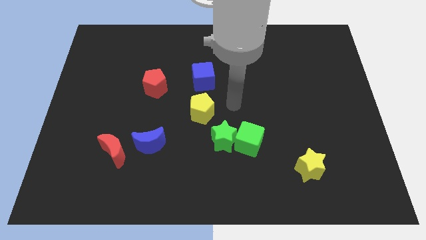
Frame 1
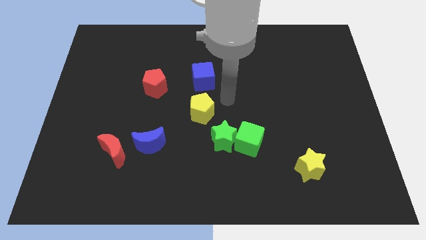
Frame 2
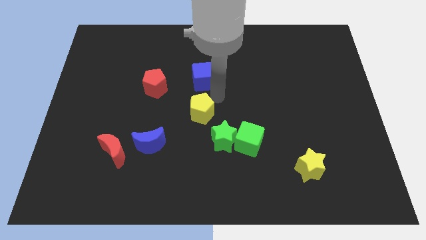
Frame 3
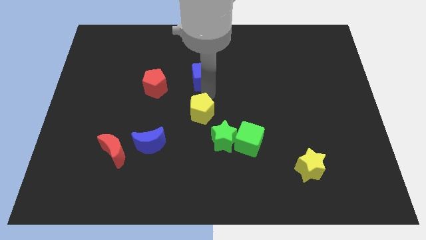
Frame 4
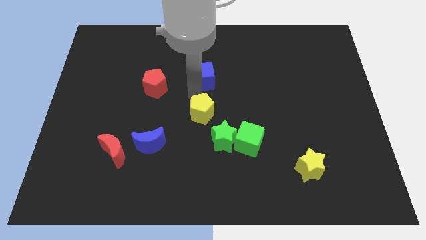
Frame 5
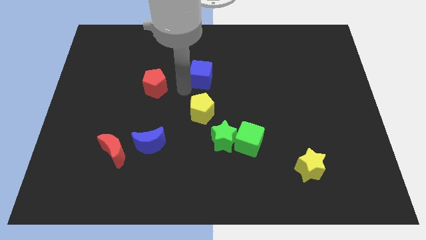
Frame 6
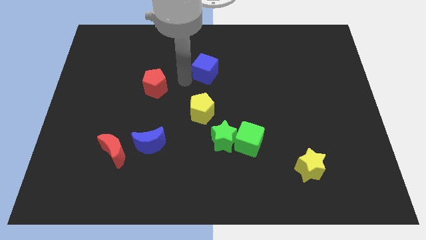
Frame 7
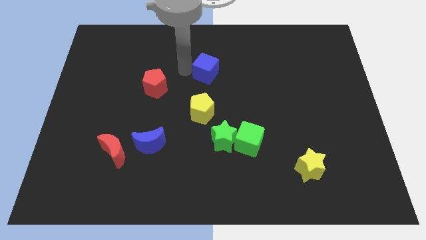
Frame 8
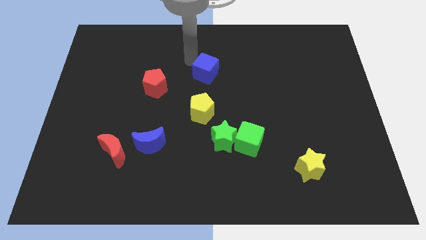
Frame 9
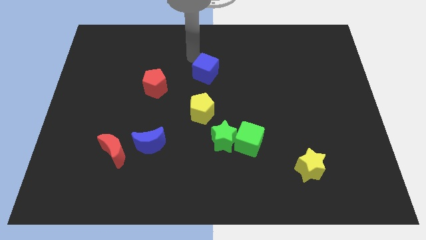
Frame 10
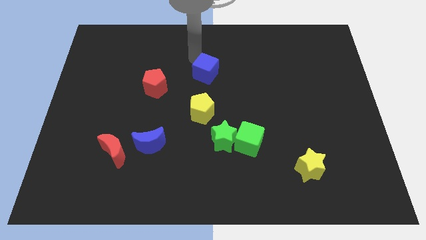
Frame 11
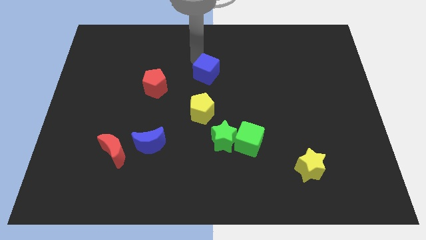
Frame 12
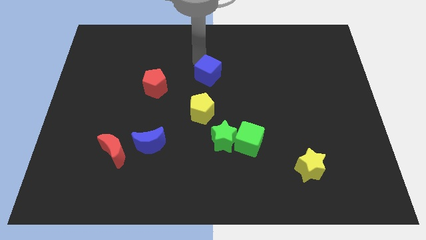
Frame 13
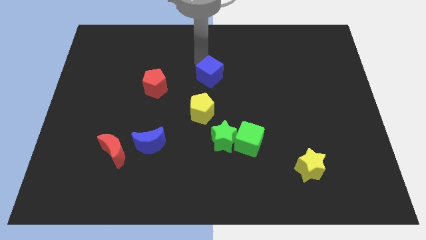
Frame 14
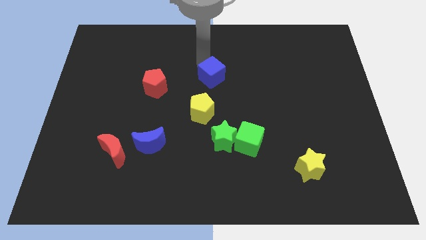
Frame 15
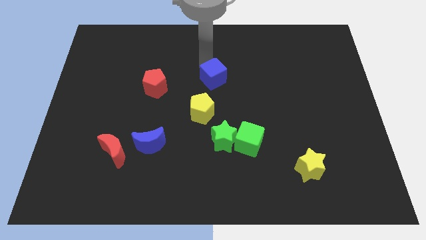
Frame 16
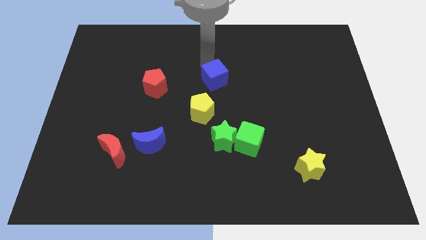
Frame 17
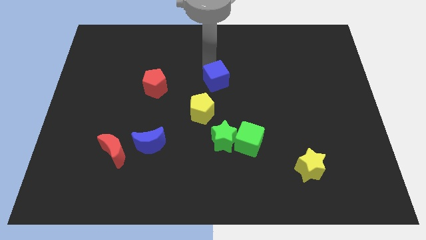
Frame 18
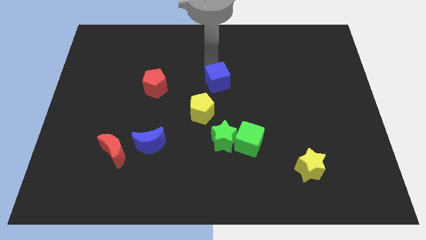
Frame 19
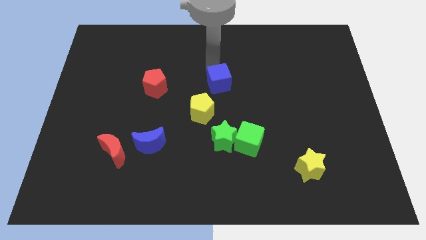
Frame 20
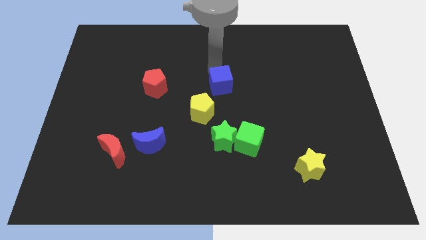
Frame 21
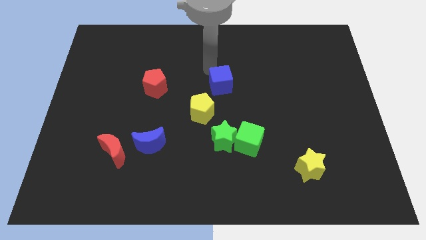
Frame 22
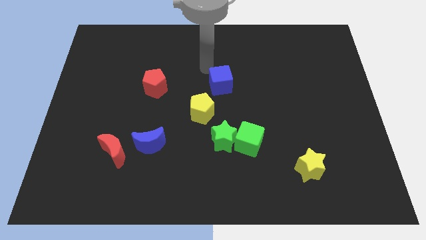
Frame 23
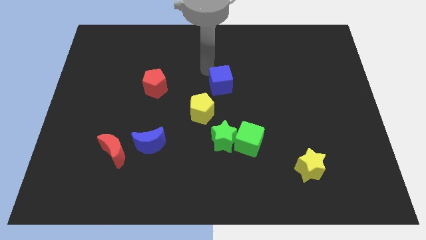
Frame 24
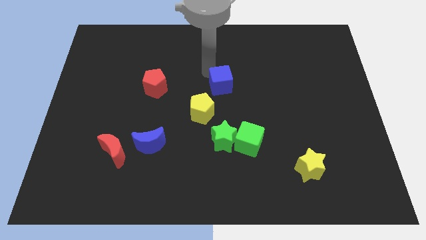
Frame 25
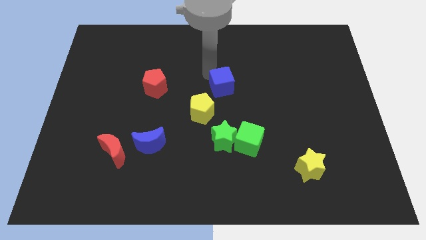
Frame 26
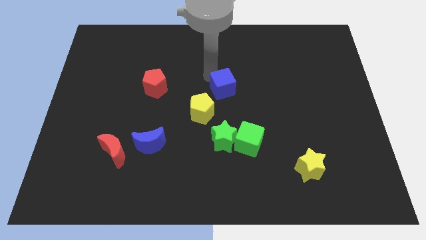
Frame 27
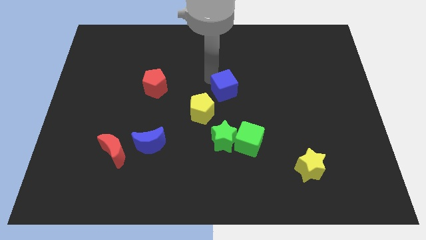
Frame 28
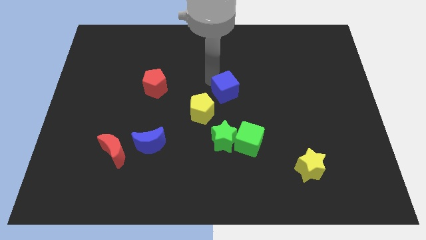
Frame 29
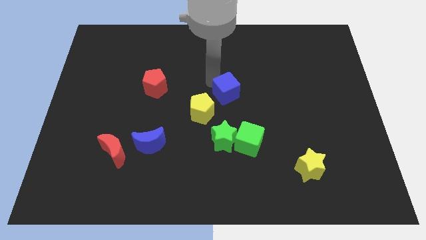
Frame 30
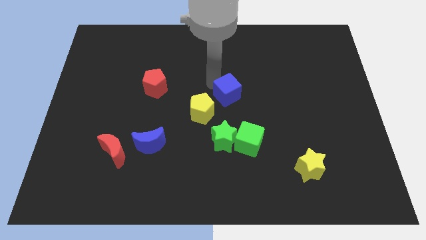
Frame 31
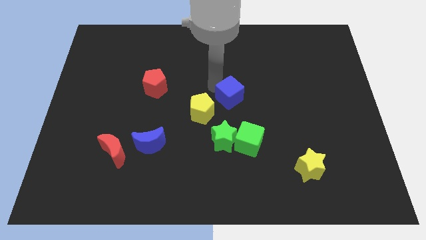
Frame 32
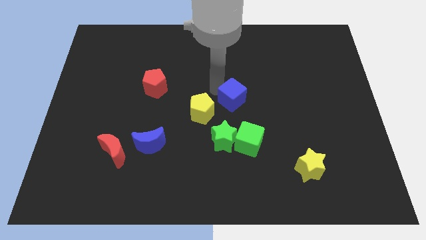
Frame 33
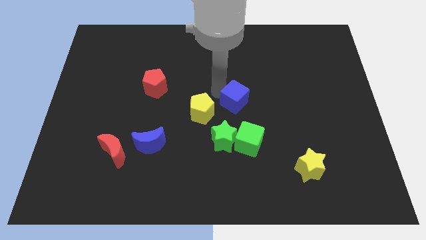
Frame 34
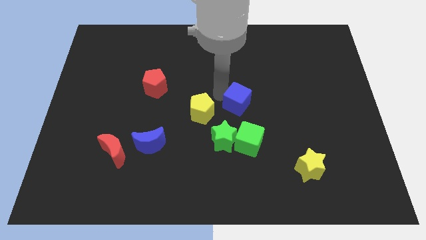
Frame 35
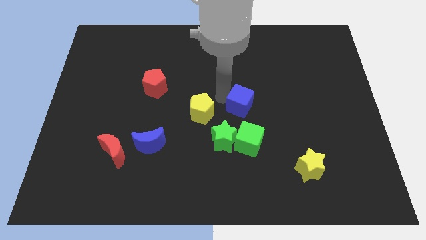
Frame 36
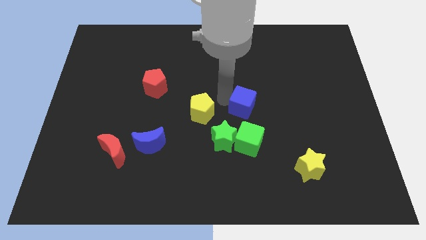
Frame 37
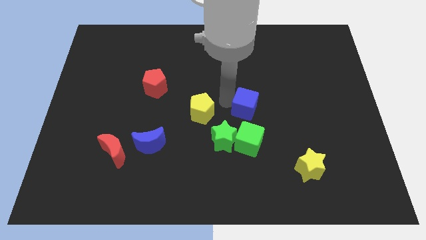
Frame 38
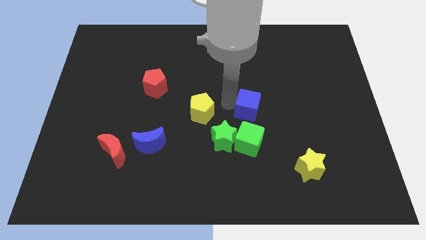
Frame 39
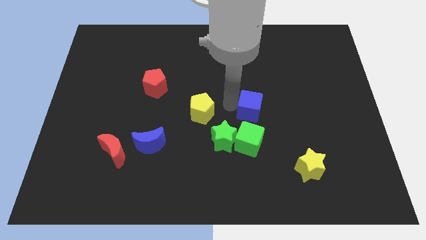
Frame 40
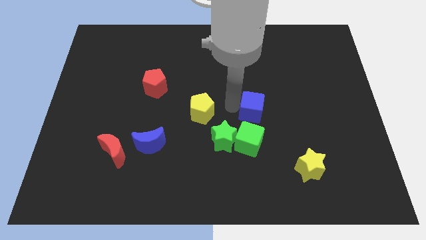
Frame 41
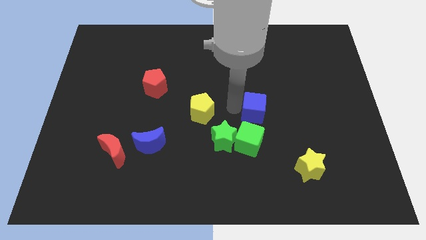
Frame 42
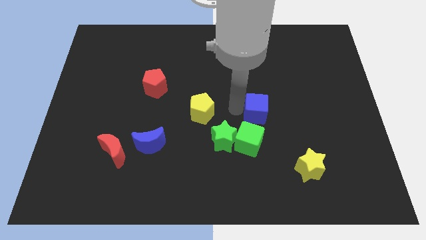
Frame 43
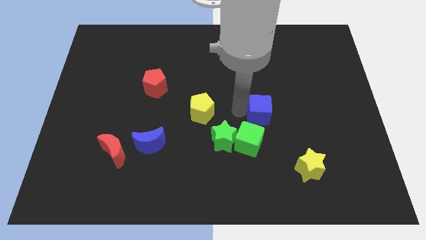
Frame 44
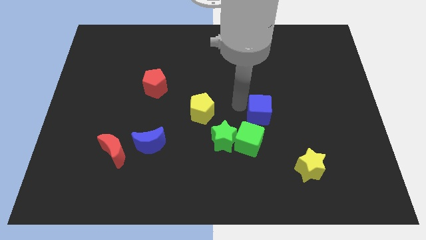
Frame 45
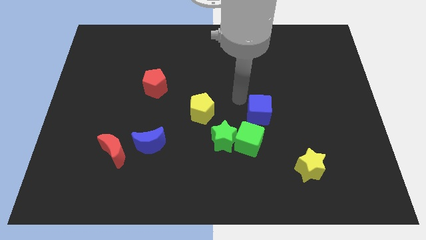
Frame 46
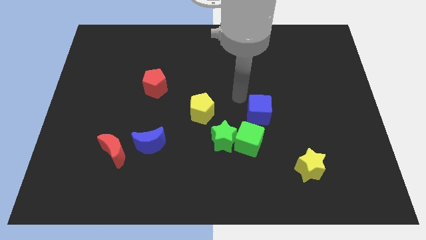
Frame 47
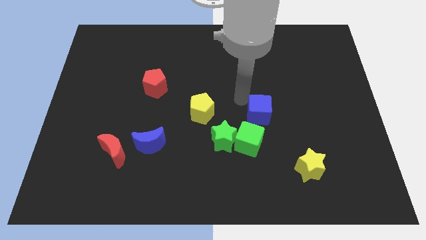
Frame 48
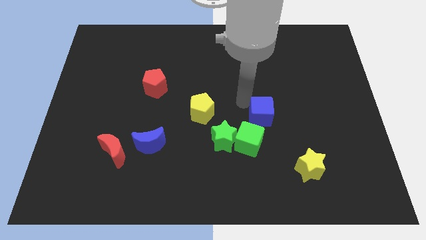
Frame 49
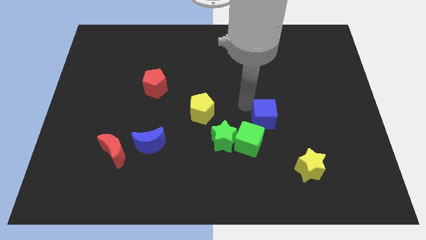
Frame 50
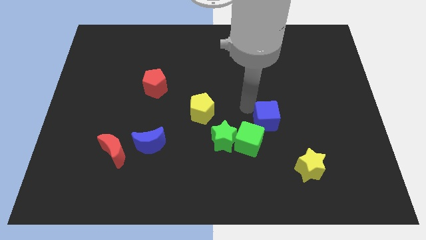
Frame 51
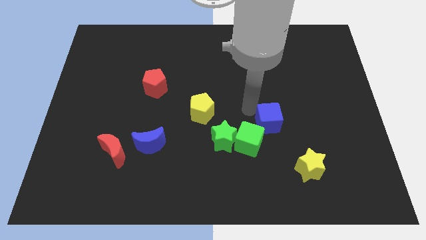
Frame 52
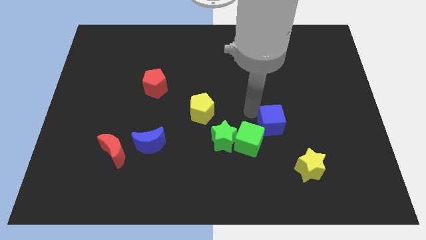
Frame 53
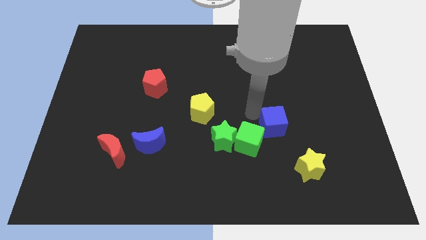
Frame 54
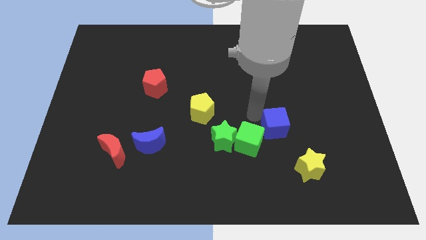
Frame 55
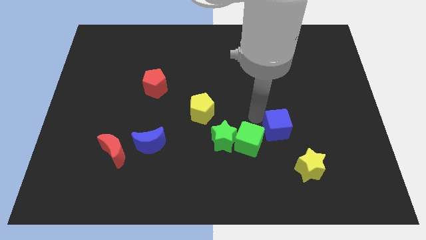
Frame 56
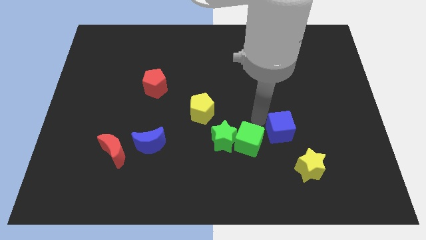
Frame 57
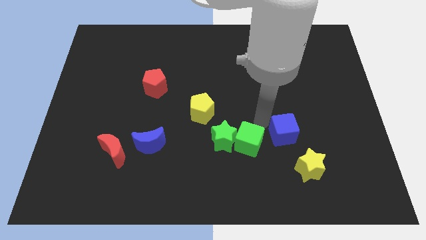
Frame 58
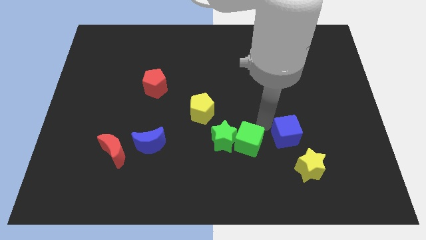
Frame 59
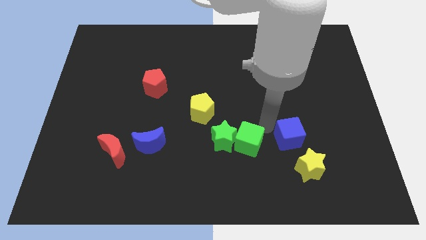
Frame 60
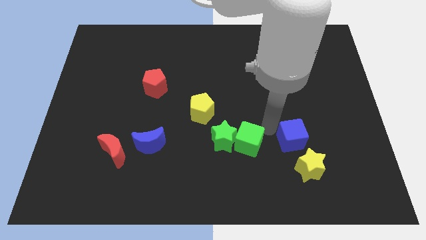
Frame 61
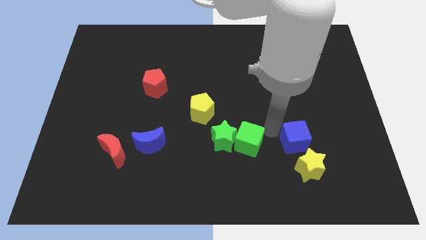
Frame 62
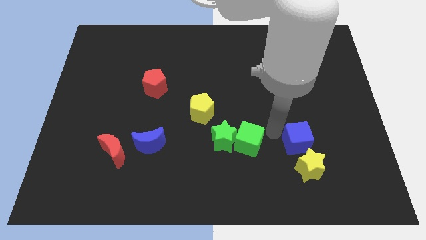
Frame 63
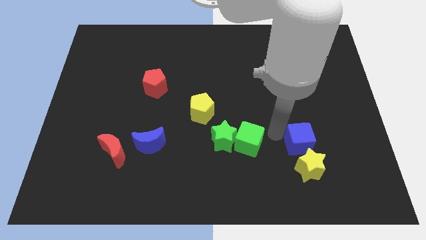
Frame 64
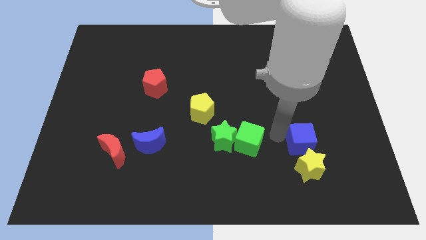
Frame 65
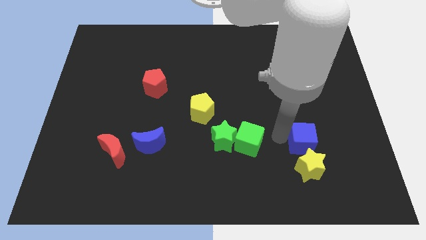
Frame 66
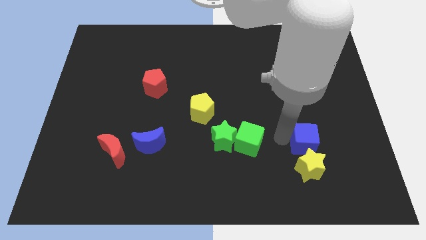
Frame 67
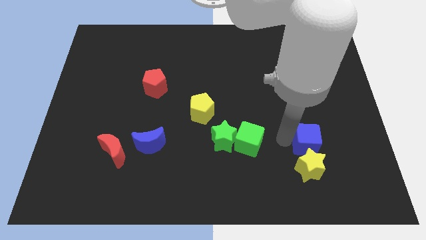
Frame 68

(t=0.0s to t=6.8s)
move the blue cube close to the yellow star

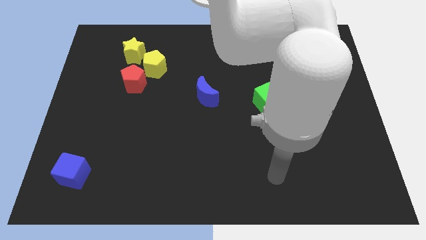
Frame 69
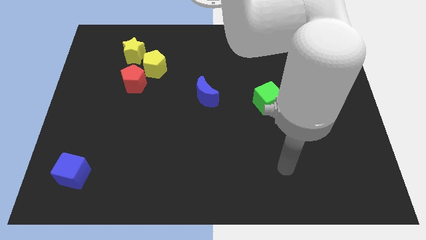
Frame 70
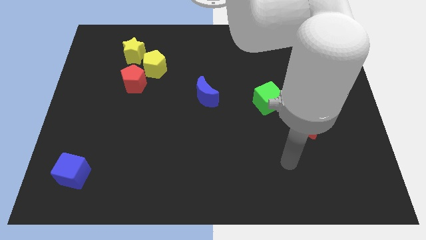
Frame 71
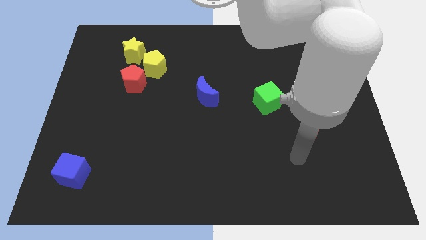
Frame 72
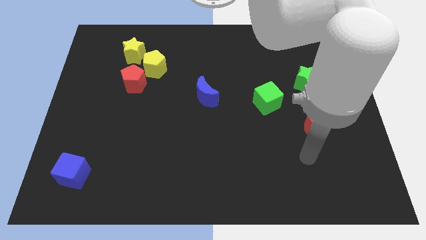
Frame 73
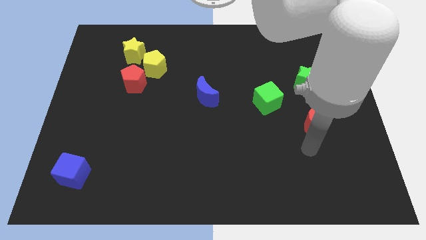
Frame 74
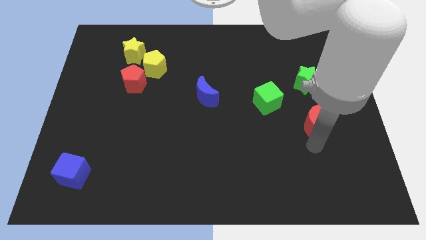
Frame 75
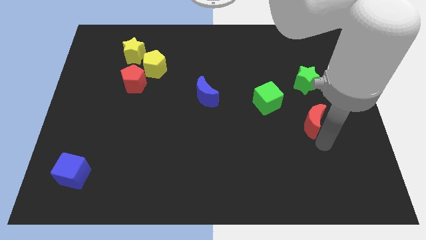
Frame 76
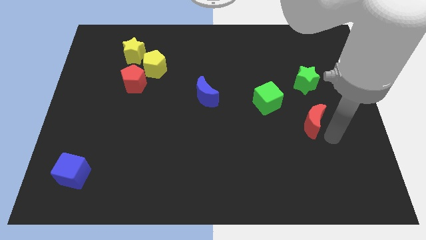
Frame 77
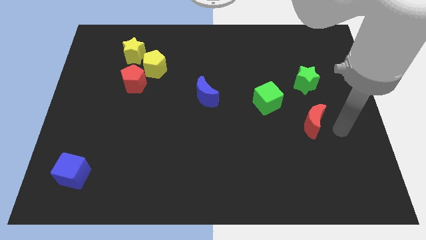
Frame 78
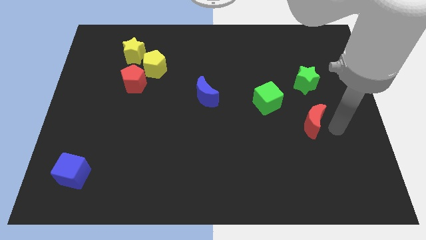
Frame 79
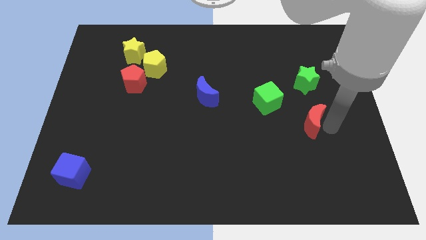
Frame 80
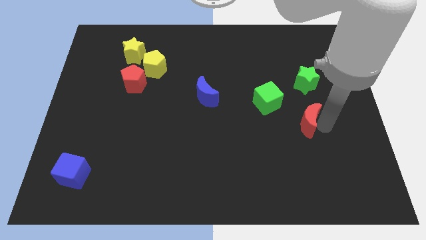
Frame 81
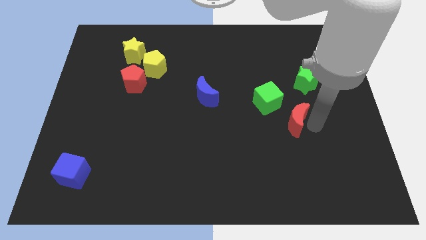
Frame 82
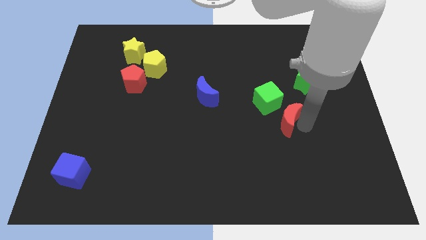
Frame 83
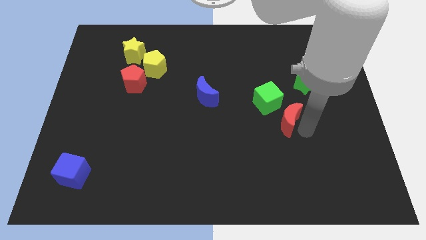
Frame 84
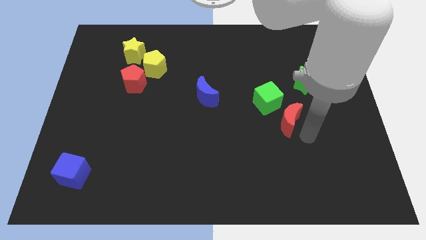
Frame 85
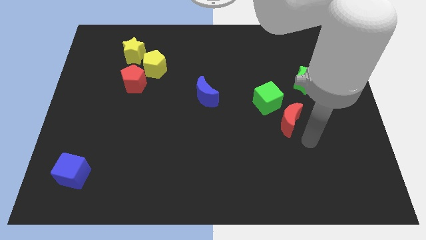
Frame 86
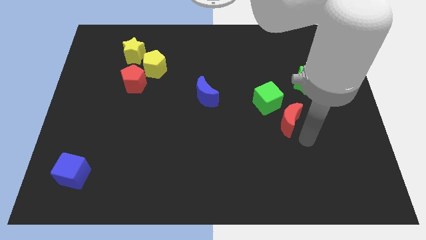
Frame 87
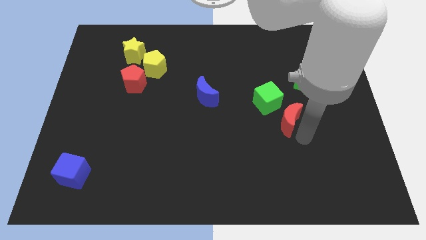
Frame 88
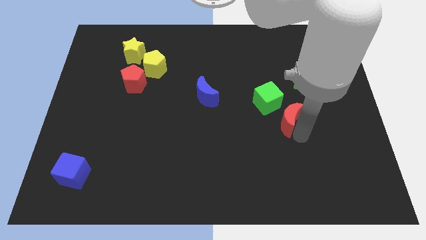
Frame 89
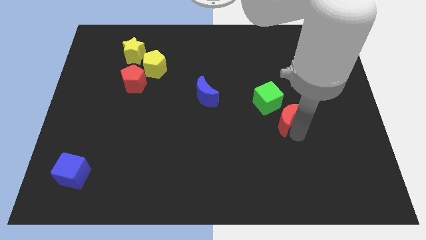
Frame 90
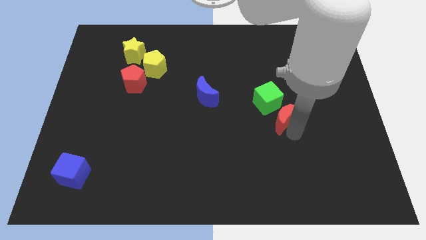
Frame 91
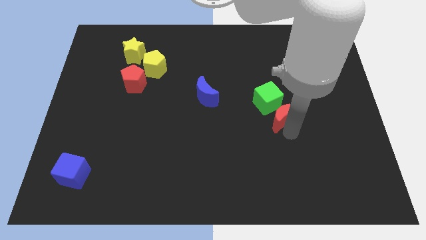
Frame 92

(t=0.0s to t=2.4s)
move the red moon close to the green cube
